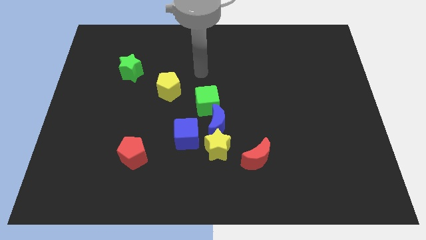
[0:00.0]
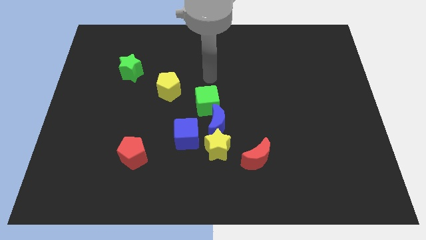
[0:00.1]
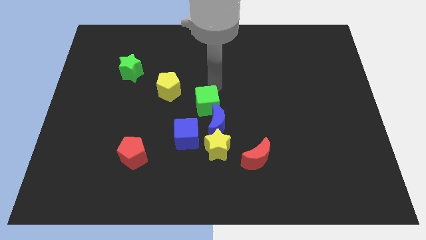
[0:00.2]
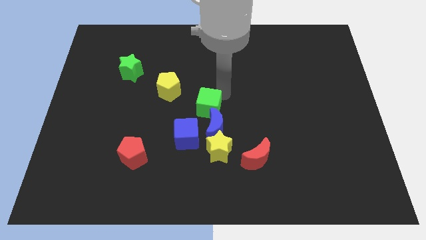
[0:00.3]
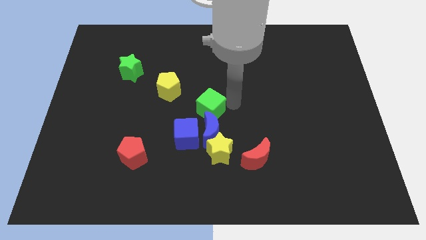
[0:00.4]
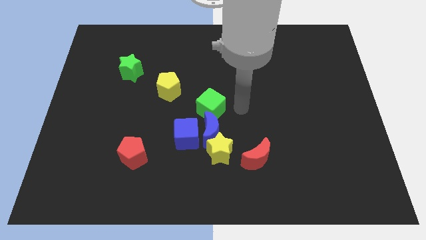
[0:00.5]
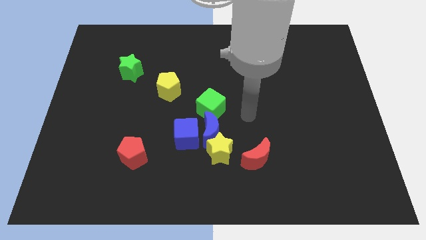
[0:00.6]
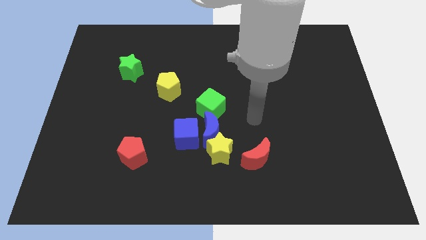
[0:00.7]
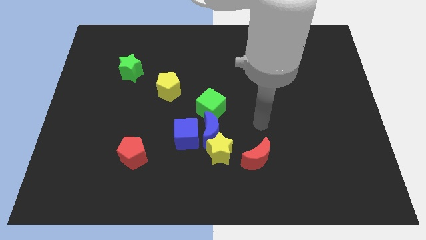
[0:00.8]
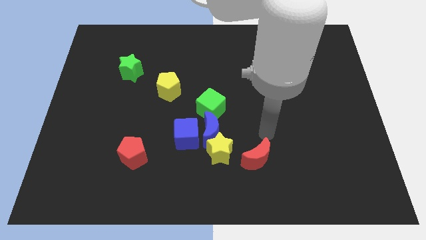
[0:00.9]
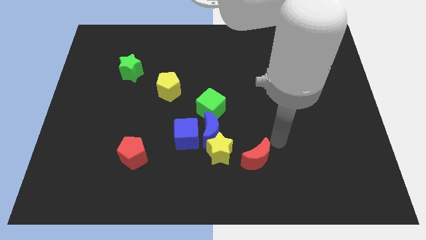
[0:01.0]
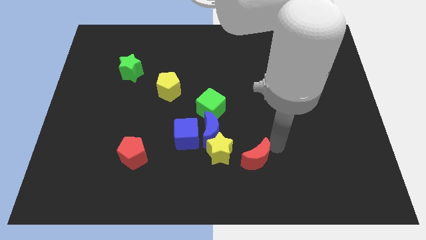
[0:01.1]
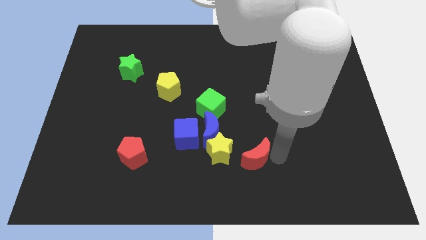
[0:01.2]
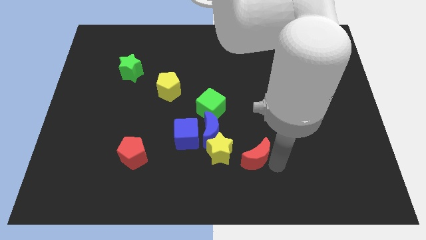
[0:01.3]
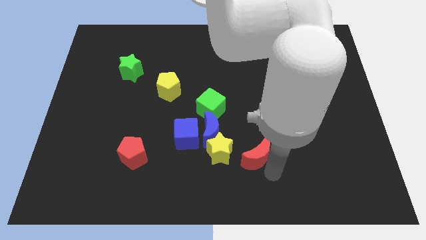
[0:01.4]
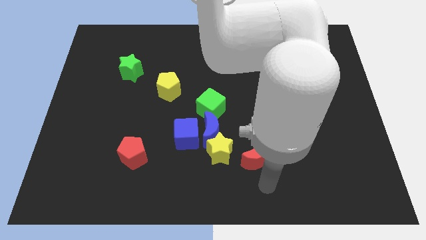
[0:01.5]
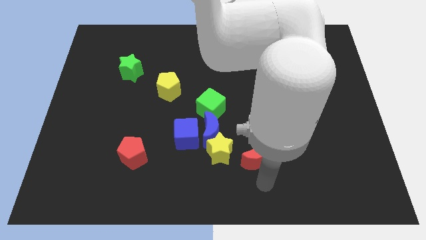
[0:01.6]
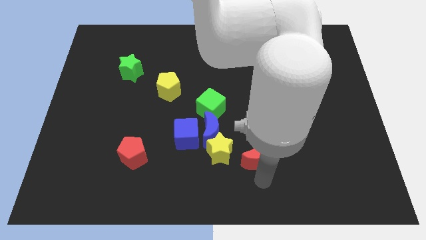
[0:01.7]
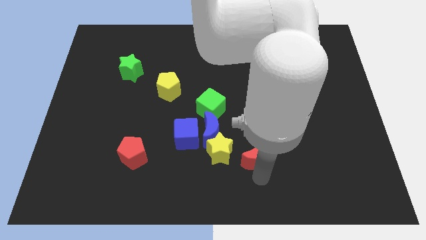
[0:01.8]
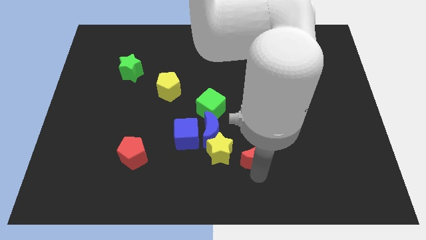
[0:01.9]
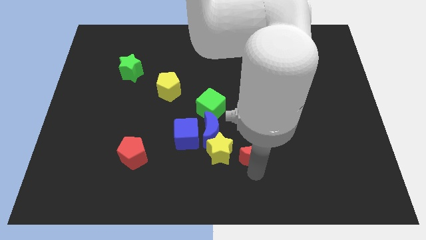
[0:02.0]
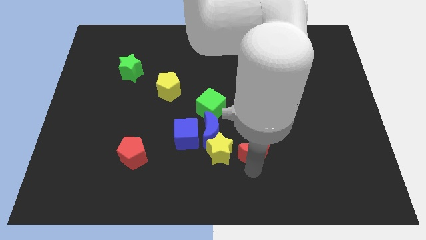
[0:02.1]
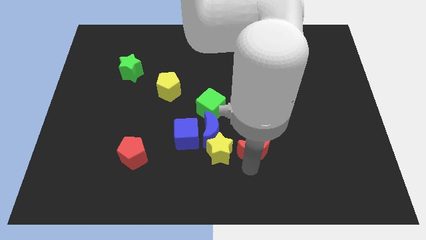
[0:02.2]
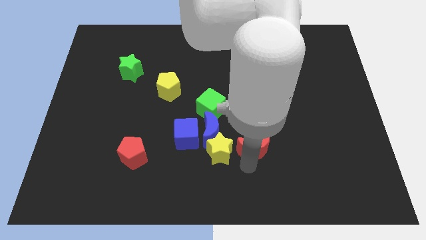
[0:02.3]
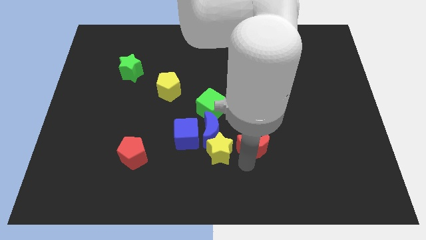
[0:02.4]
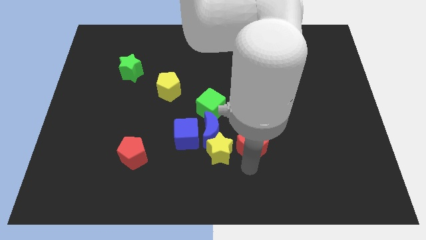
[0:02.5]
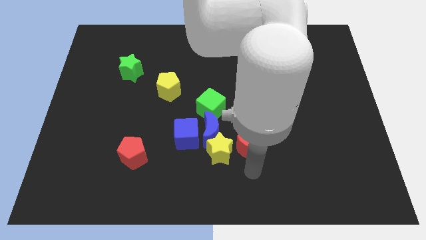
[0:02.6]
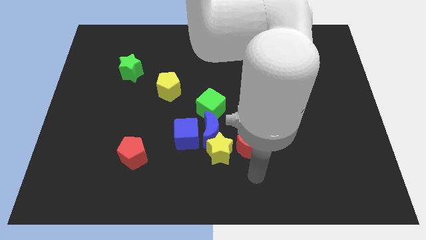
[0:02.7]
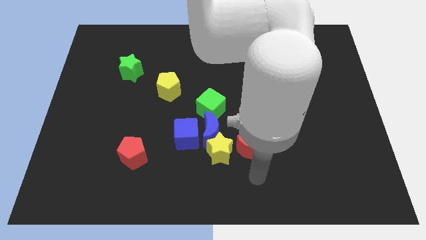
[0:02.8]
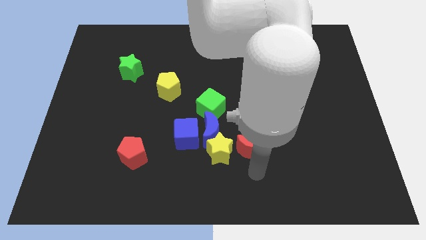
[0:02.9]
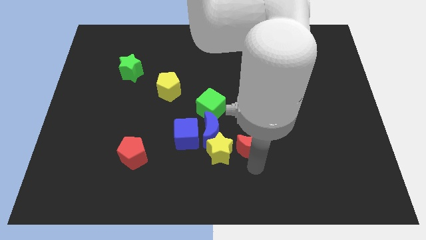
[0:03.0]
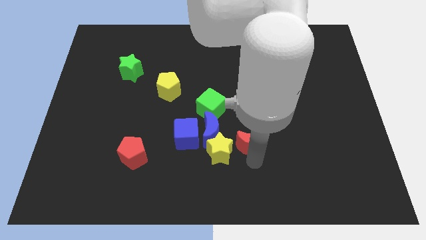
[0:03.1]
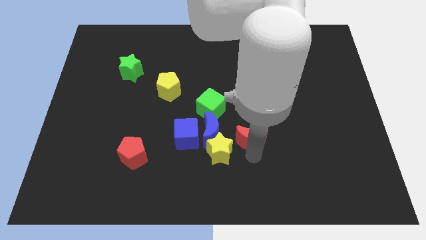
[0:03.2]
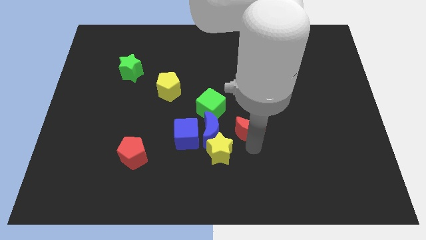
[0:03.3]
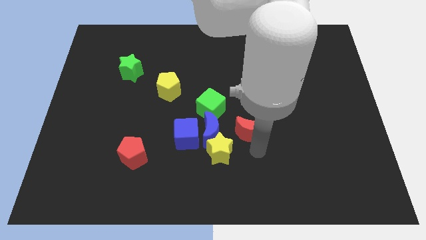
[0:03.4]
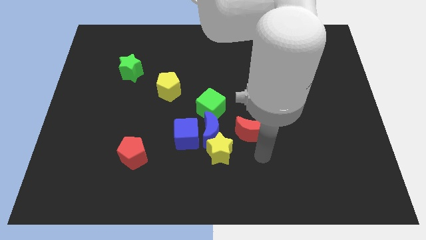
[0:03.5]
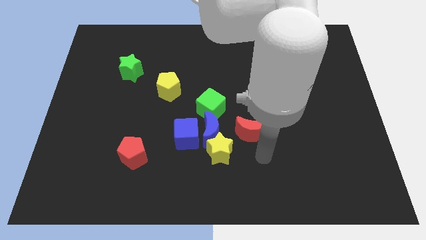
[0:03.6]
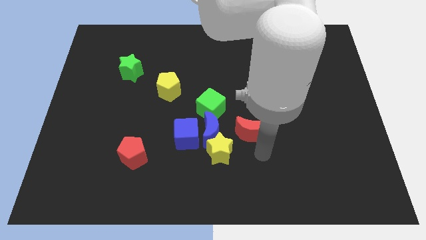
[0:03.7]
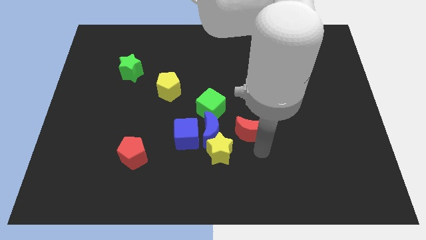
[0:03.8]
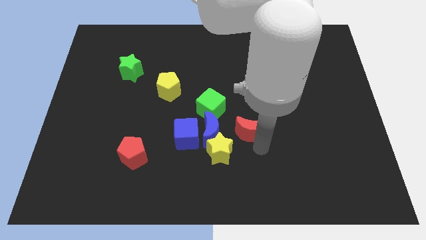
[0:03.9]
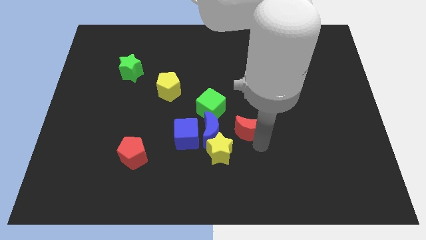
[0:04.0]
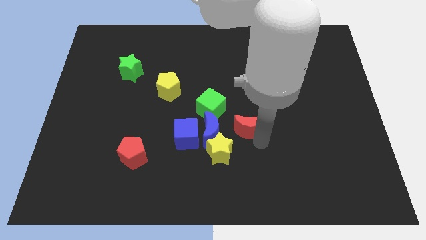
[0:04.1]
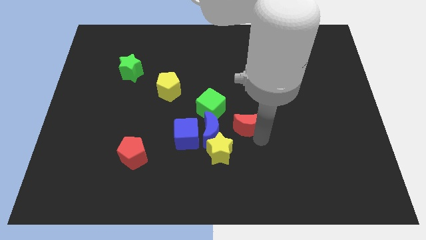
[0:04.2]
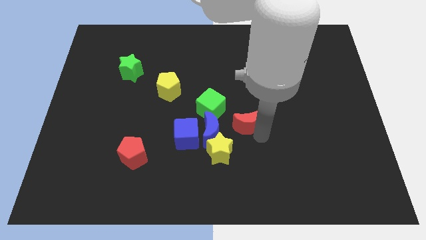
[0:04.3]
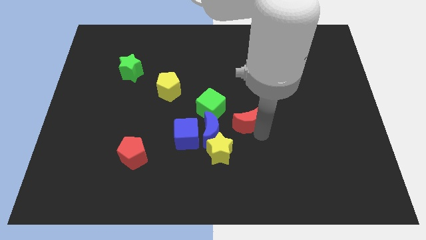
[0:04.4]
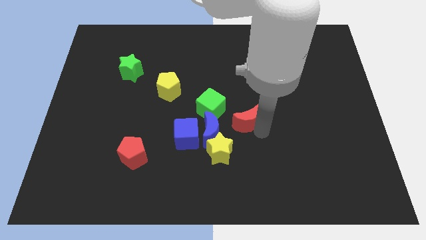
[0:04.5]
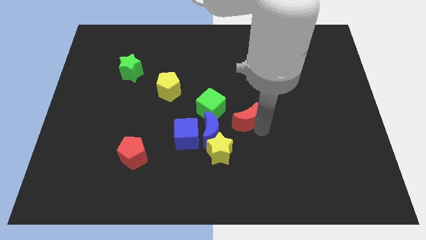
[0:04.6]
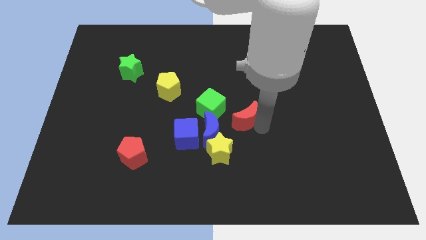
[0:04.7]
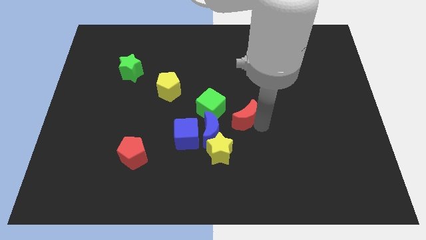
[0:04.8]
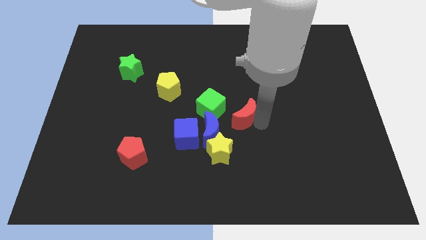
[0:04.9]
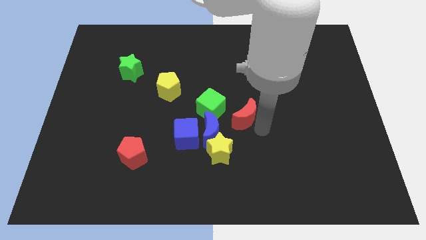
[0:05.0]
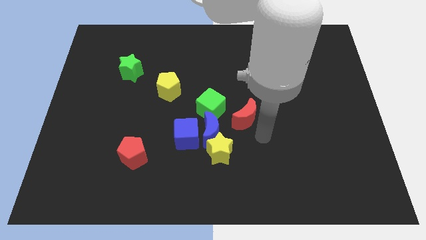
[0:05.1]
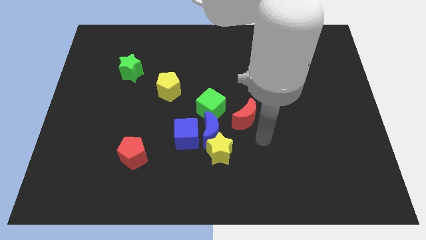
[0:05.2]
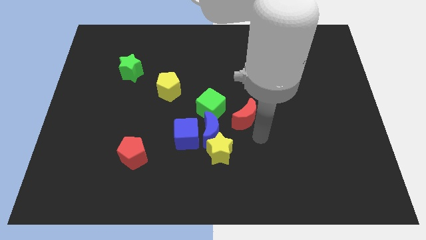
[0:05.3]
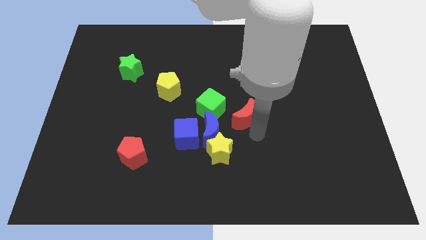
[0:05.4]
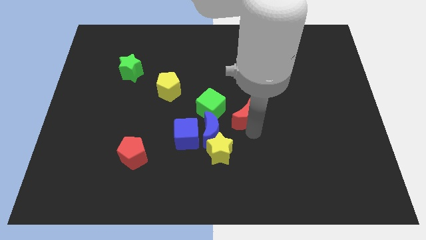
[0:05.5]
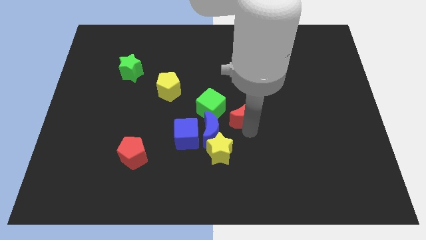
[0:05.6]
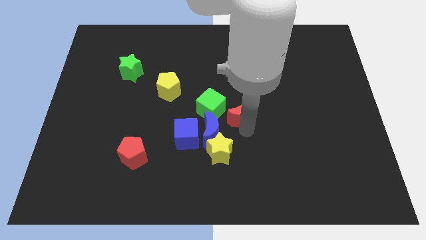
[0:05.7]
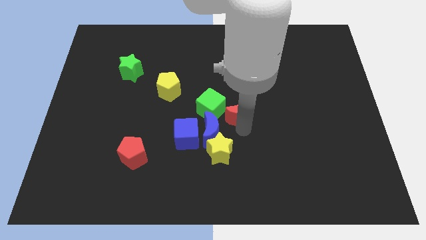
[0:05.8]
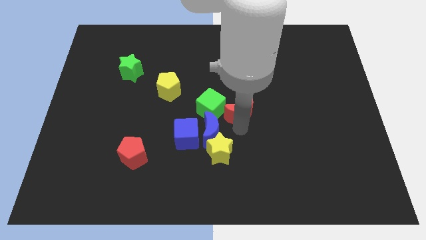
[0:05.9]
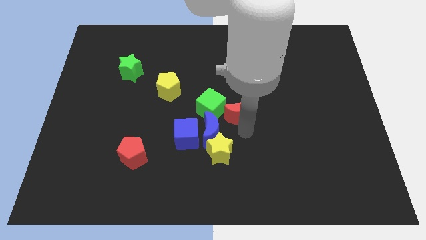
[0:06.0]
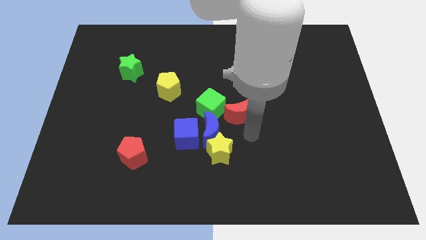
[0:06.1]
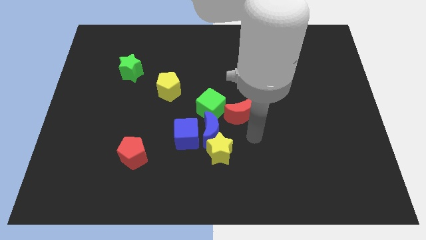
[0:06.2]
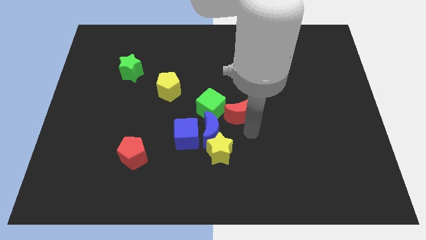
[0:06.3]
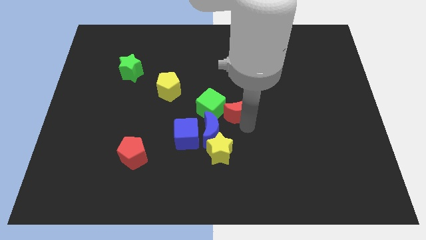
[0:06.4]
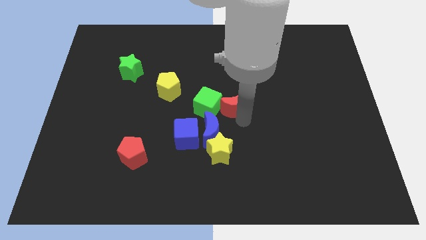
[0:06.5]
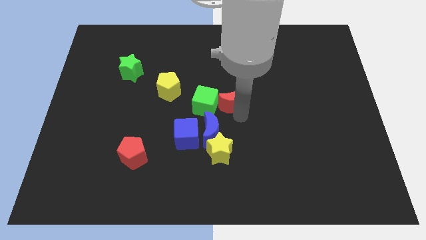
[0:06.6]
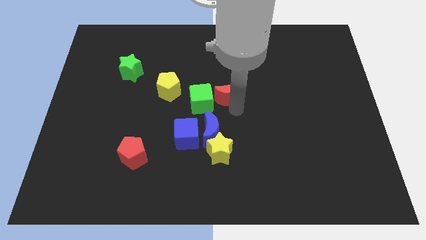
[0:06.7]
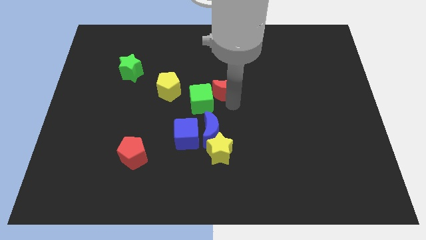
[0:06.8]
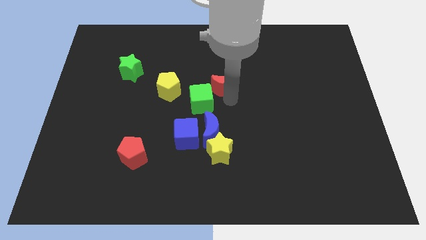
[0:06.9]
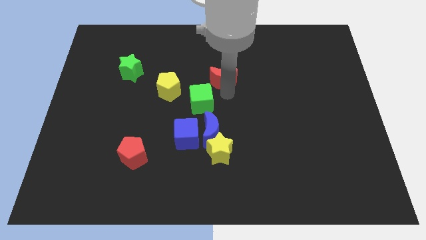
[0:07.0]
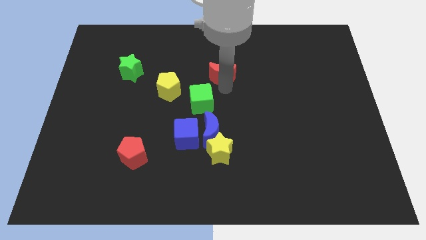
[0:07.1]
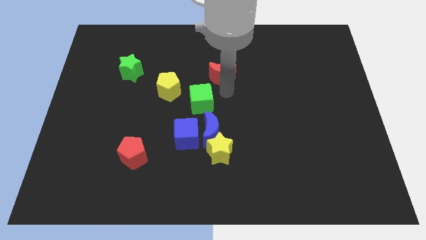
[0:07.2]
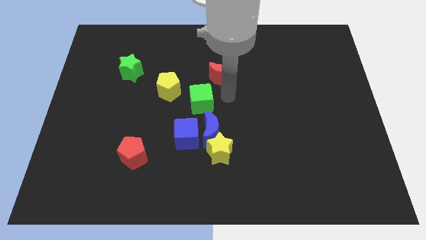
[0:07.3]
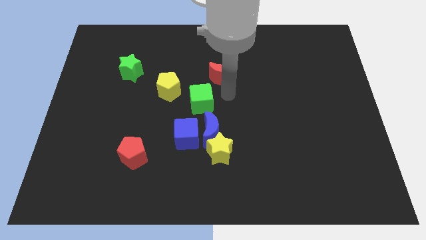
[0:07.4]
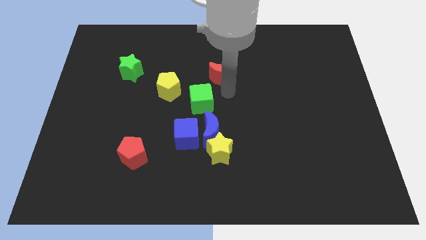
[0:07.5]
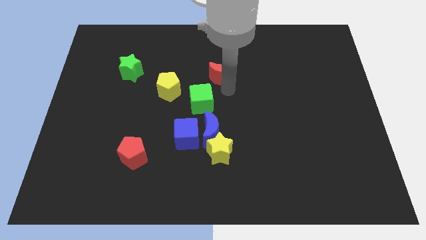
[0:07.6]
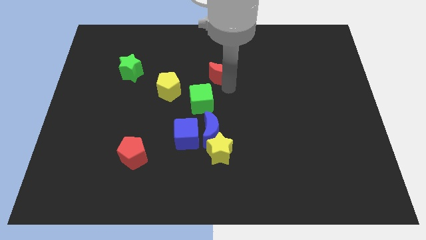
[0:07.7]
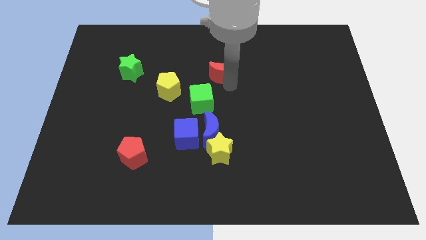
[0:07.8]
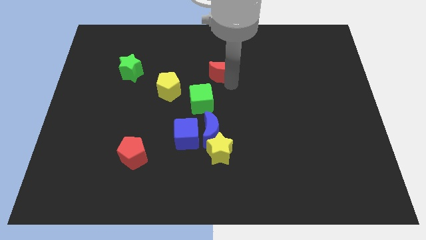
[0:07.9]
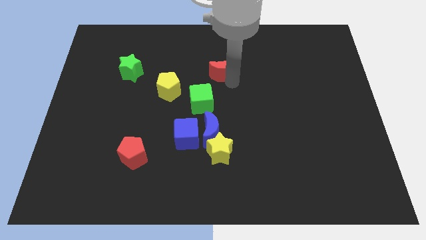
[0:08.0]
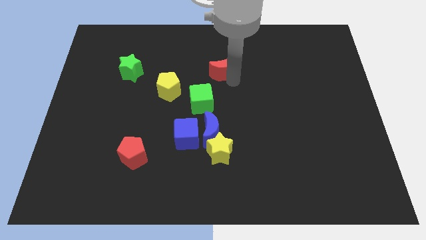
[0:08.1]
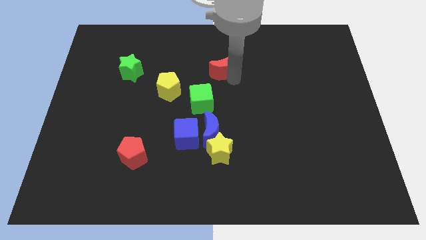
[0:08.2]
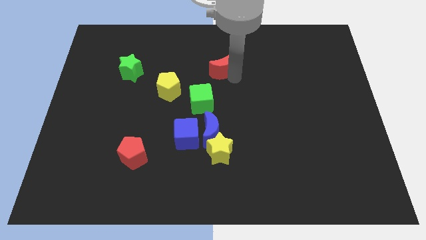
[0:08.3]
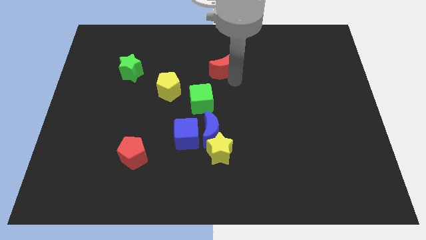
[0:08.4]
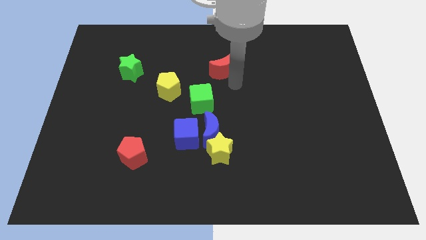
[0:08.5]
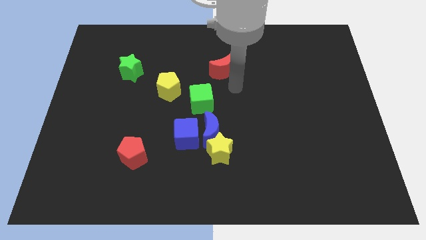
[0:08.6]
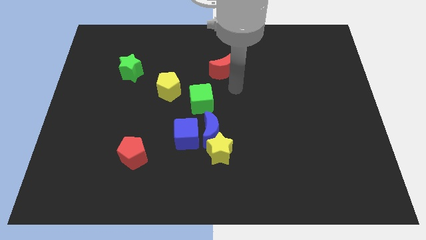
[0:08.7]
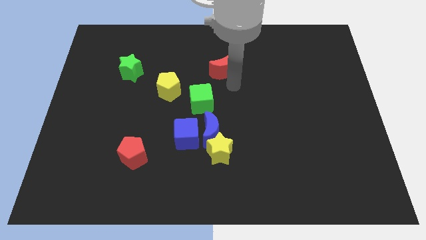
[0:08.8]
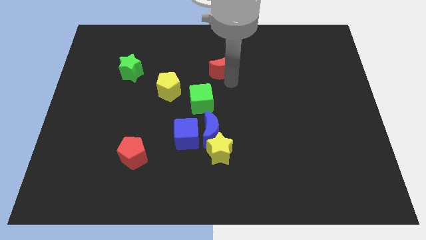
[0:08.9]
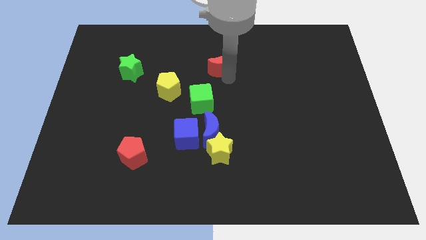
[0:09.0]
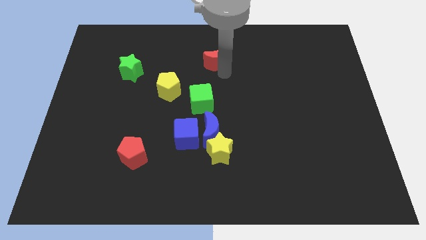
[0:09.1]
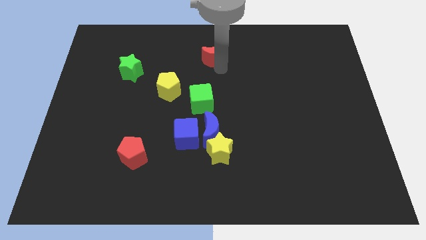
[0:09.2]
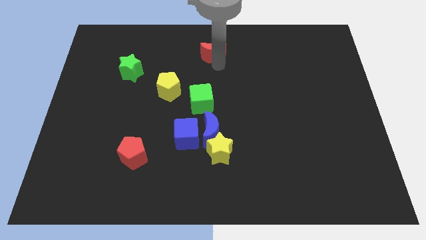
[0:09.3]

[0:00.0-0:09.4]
slide the red moon to the top
